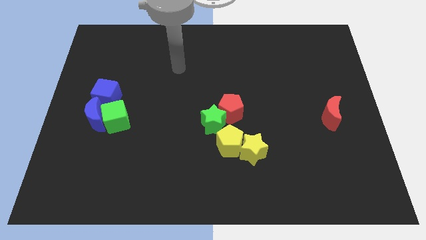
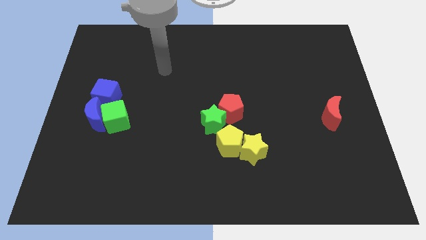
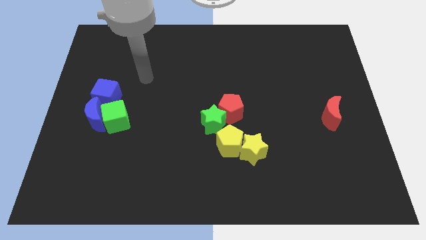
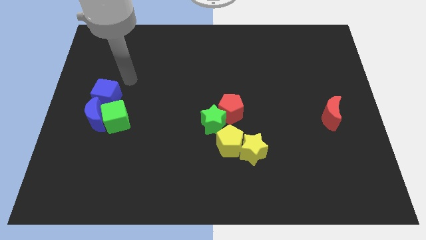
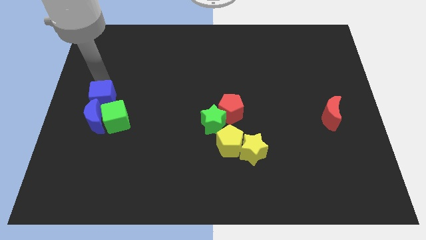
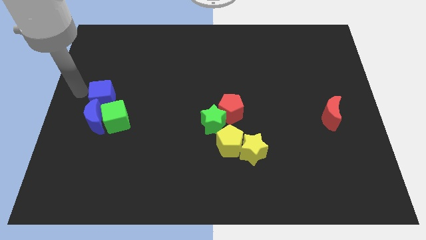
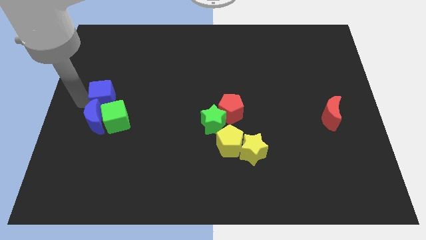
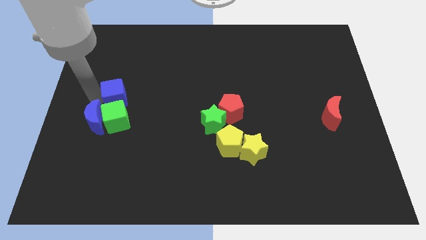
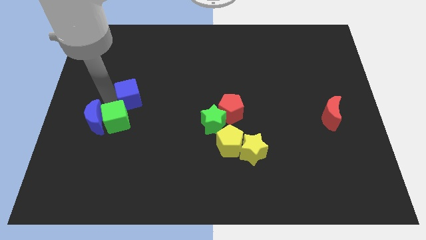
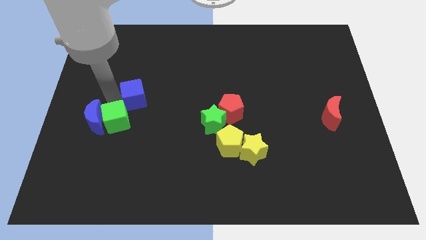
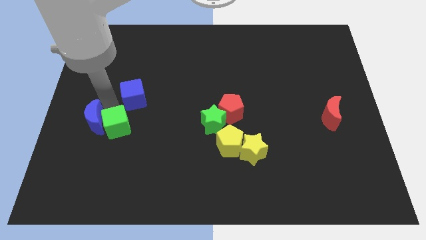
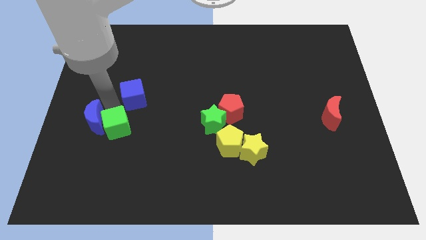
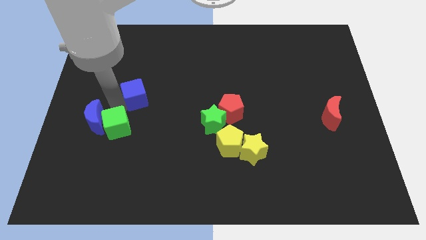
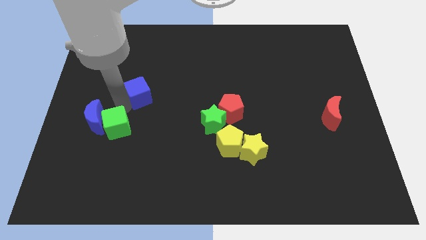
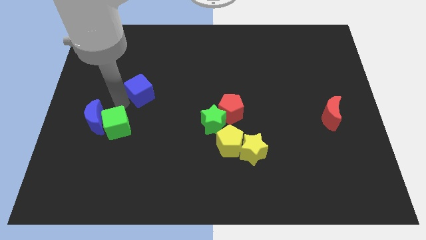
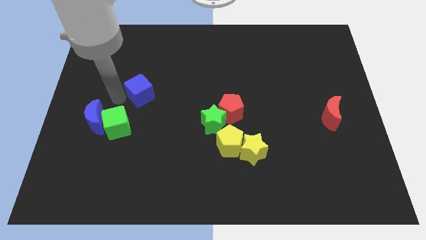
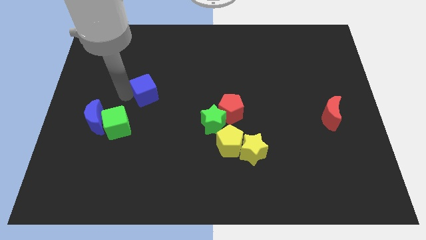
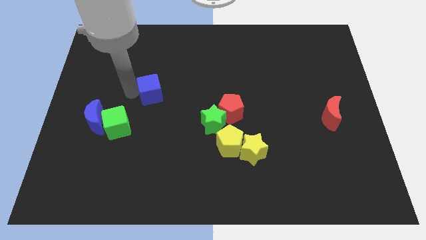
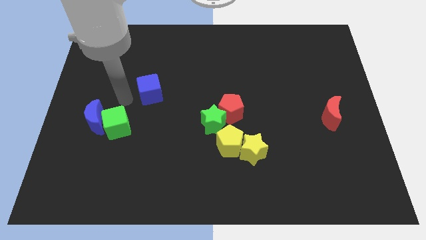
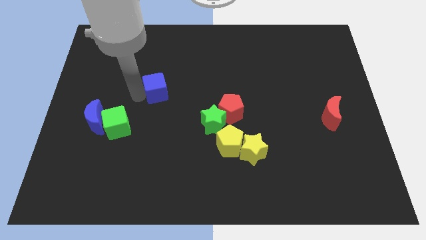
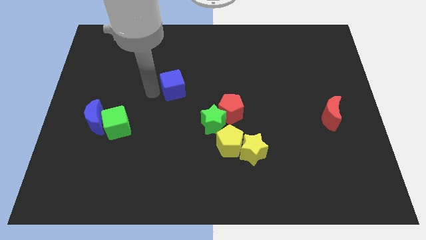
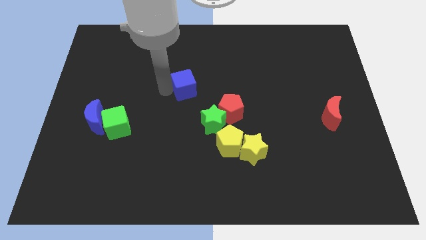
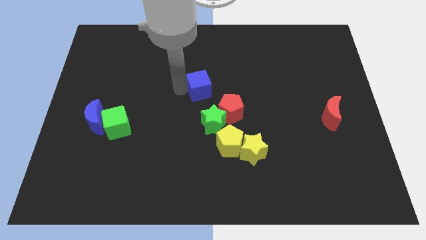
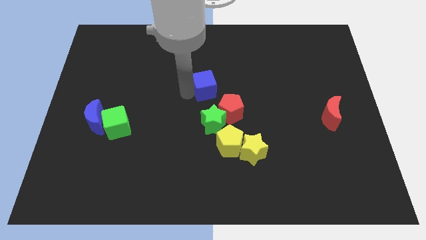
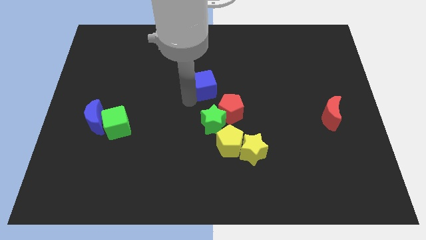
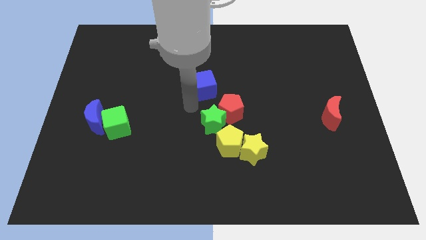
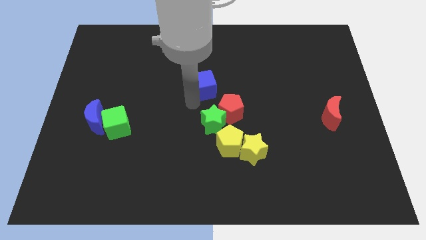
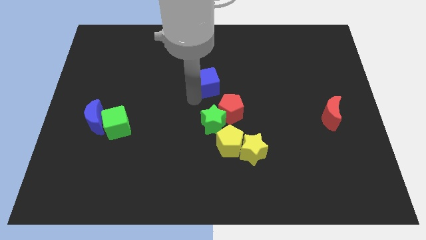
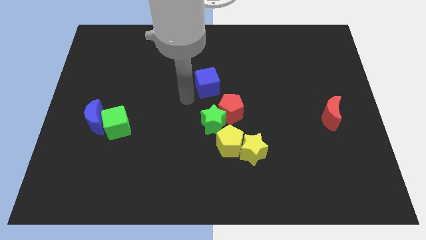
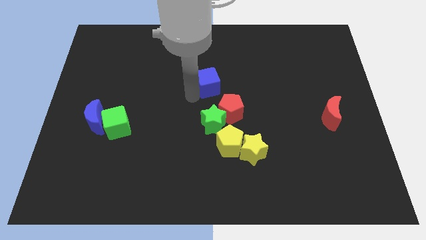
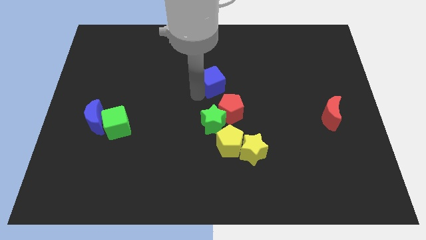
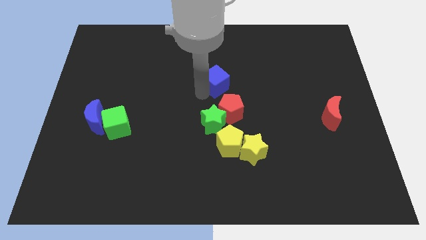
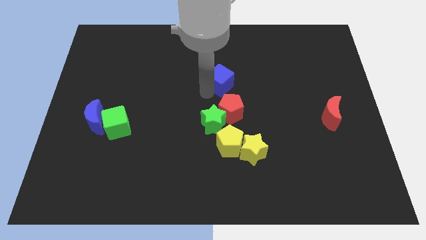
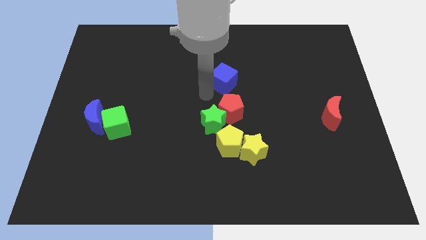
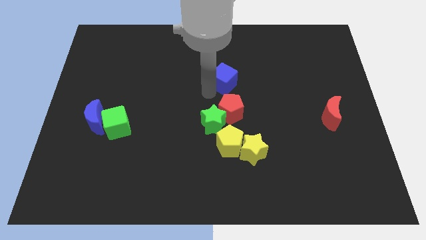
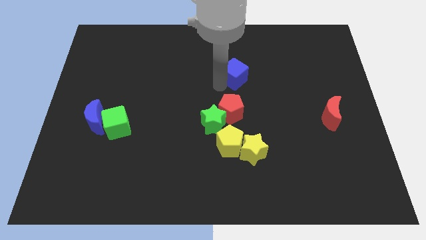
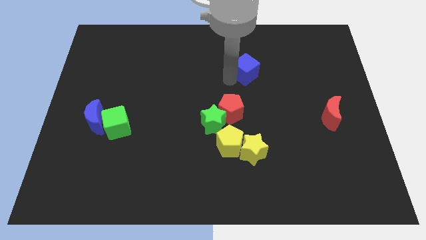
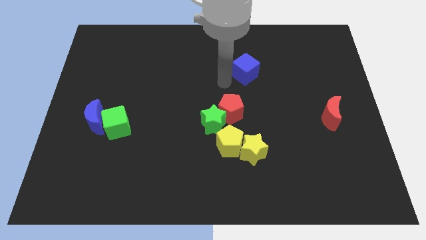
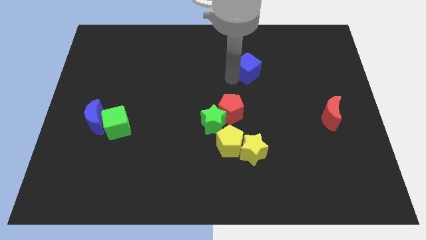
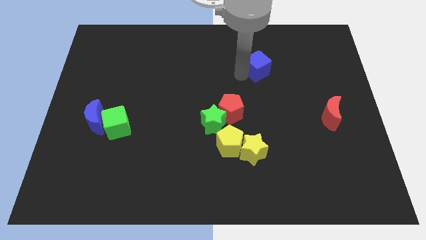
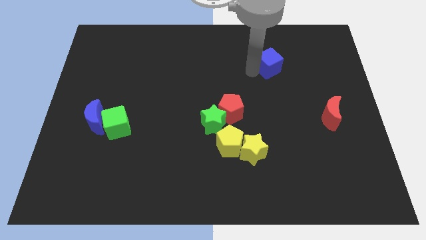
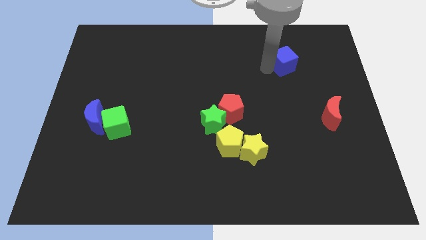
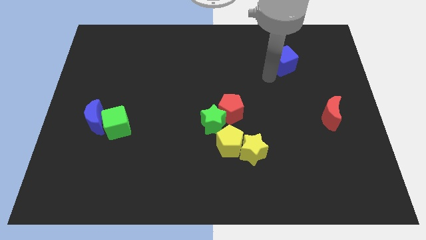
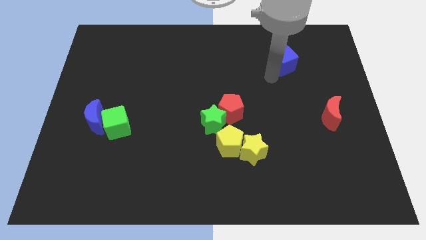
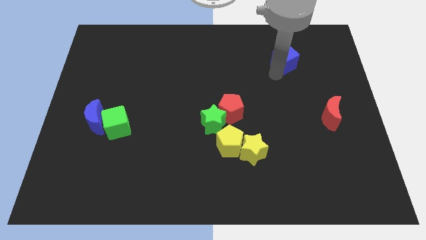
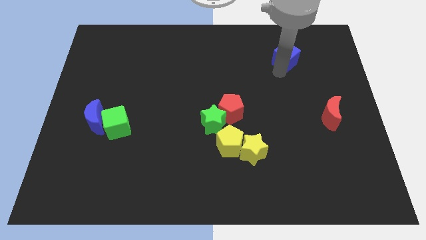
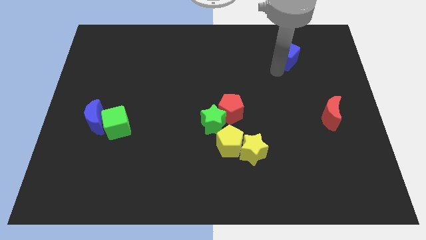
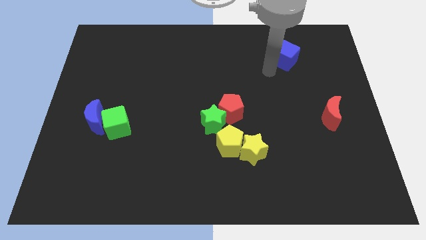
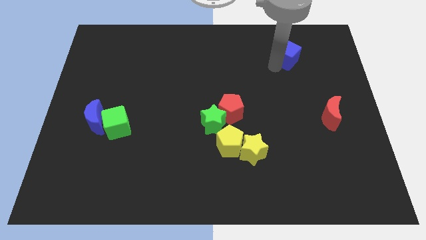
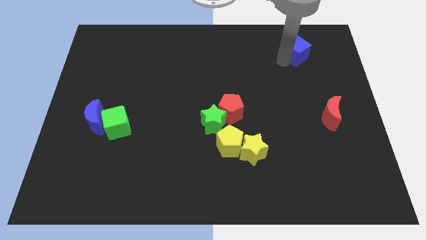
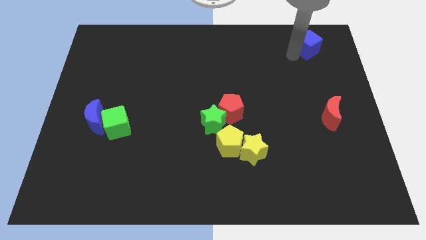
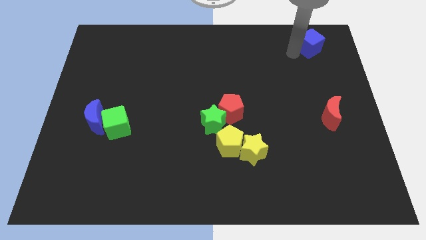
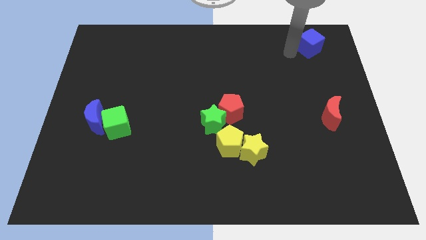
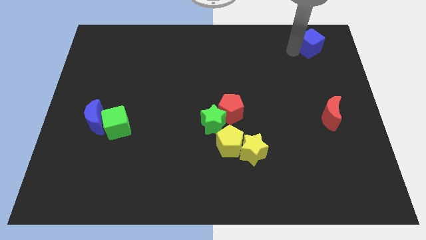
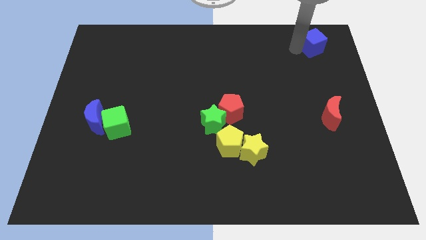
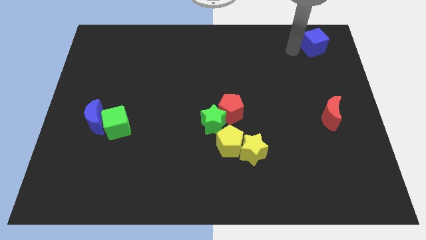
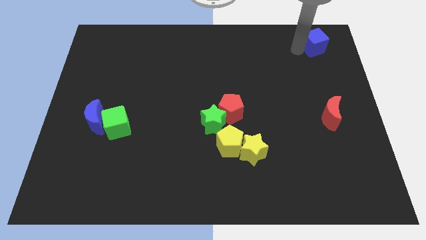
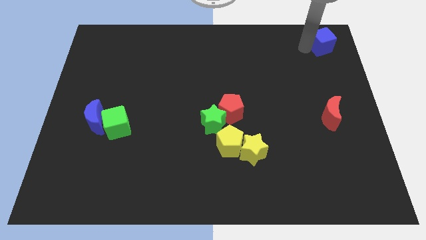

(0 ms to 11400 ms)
slide the blue cube to the upper right corner

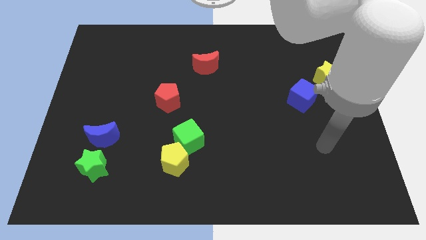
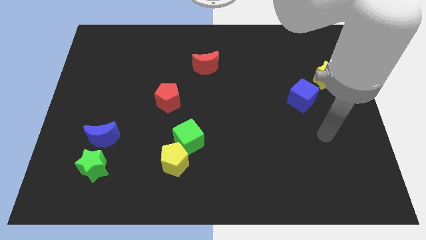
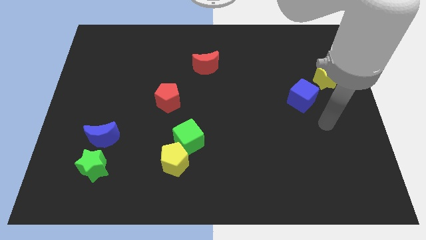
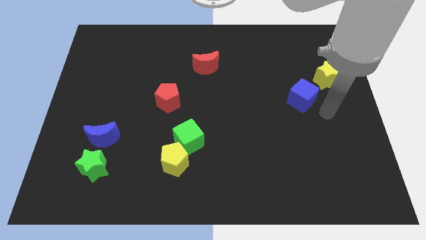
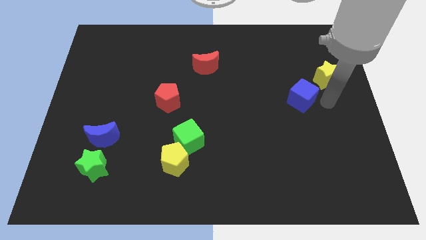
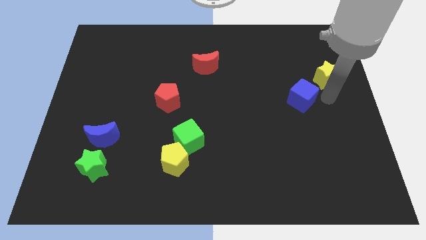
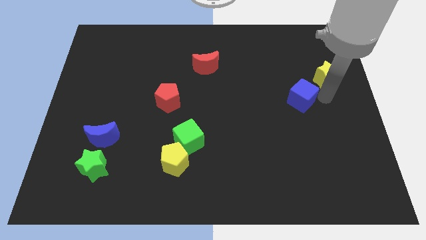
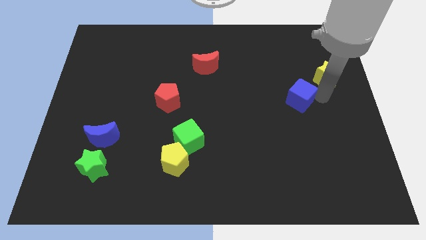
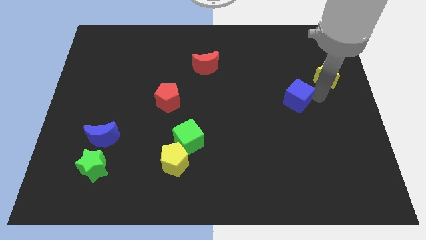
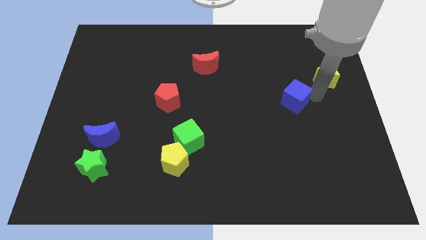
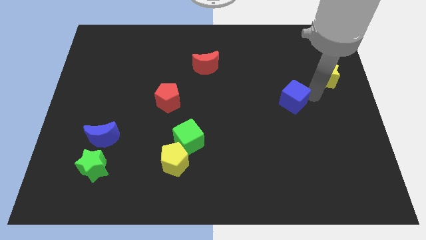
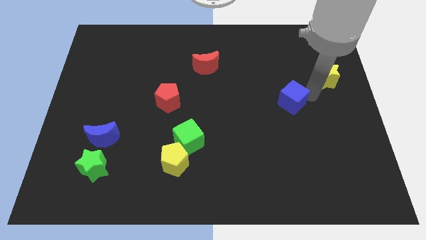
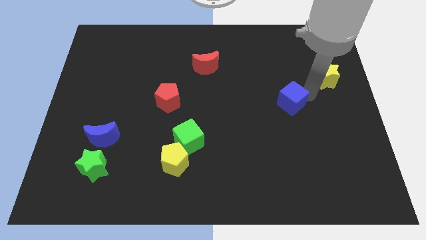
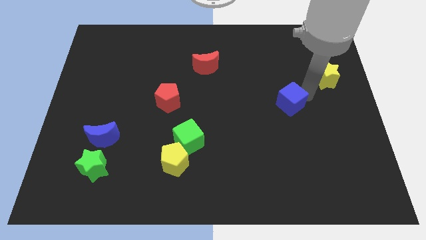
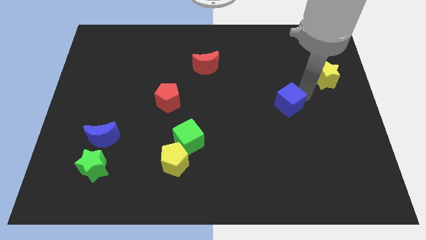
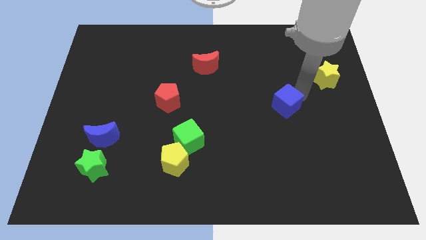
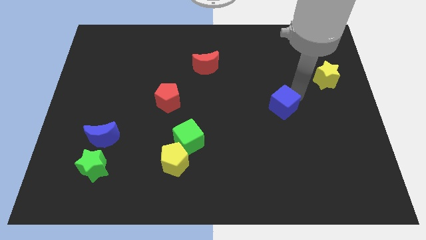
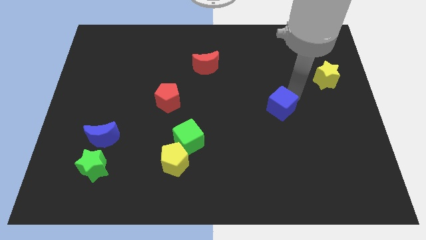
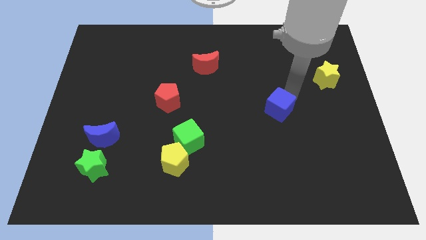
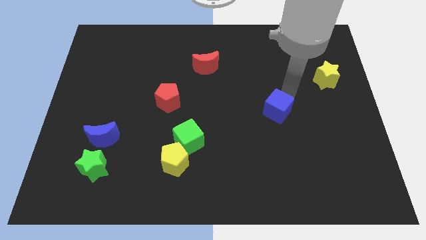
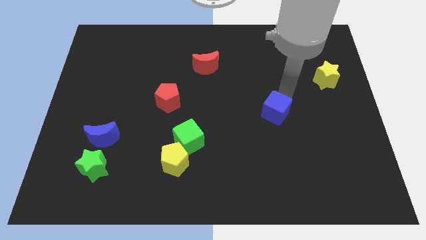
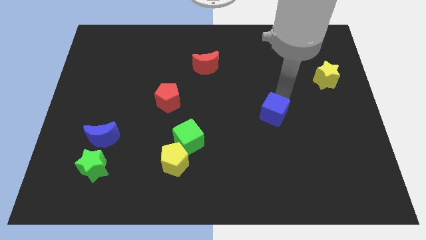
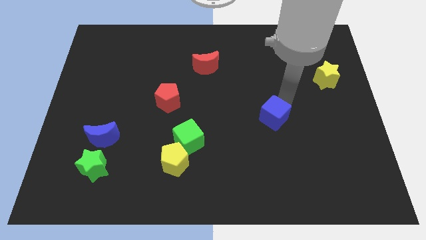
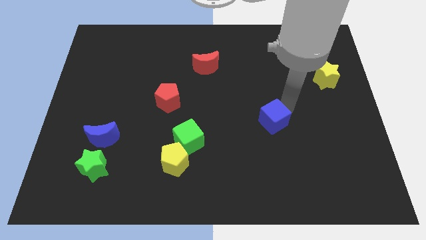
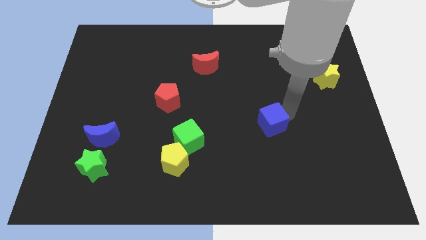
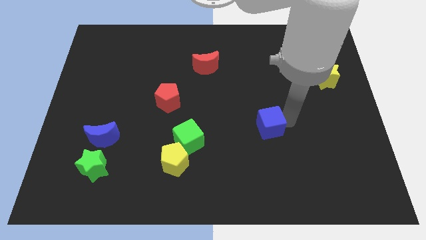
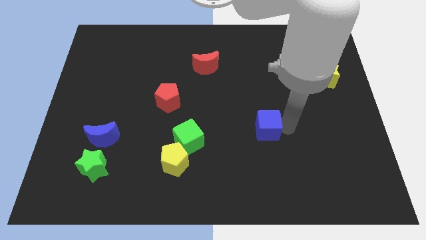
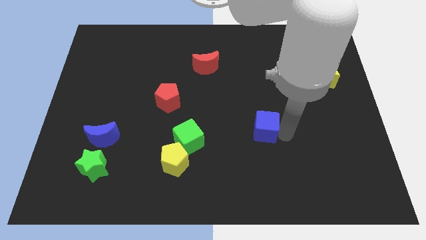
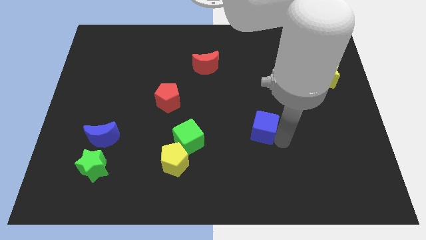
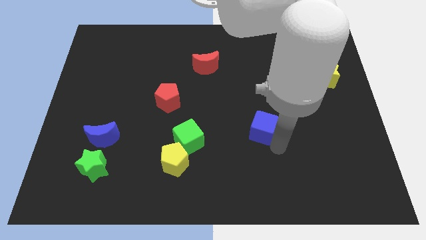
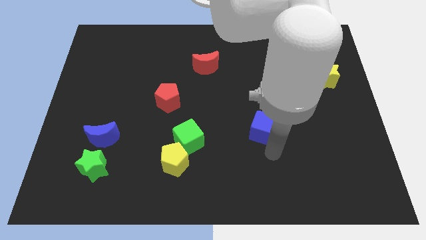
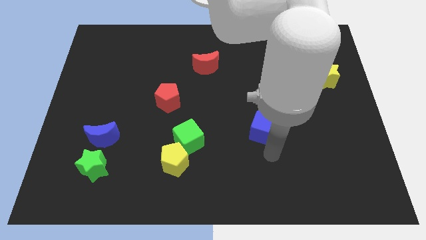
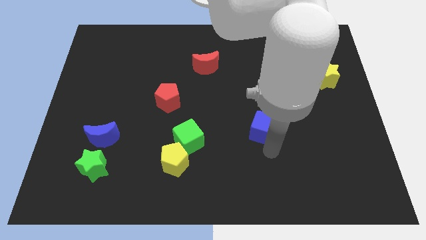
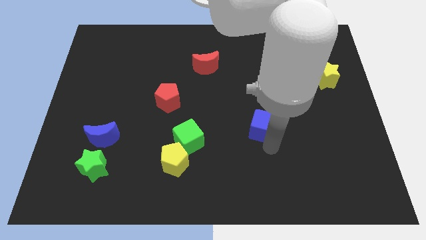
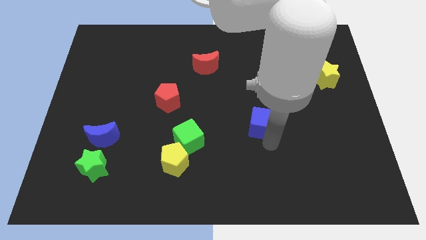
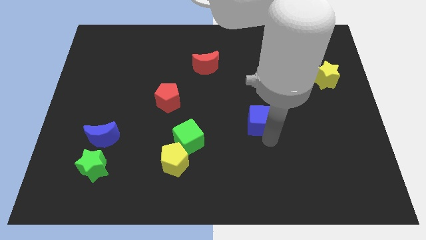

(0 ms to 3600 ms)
move the blue cube to the middle
